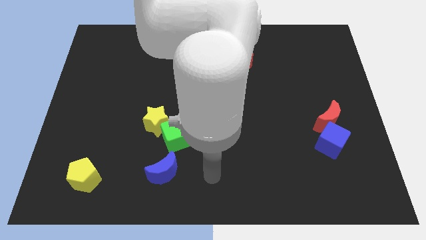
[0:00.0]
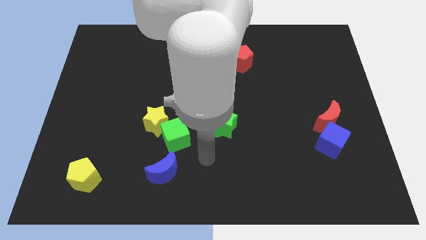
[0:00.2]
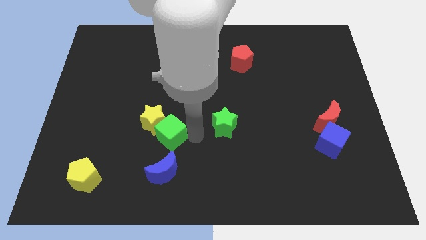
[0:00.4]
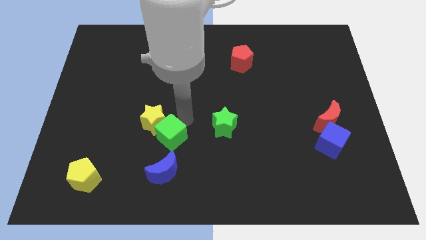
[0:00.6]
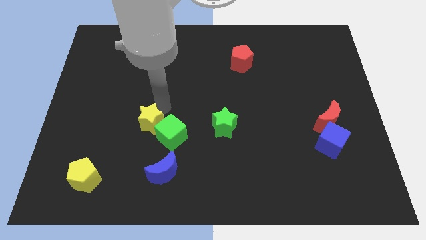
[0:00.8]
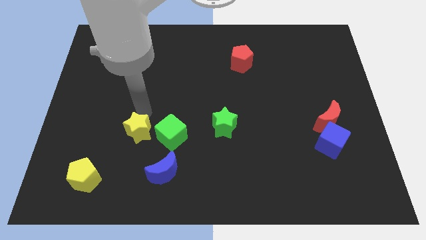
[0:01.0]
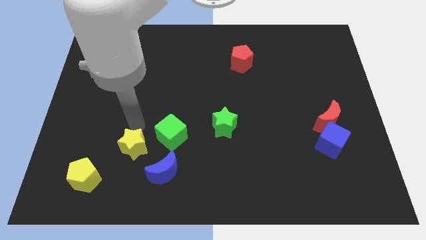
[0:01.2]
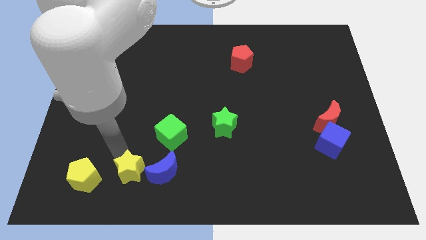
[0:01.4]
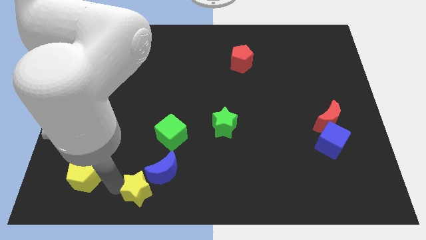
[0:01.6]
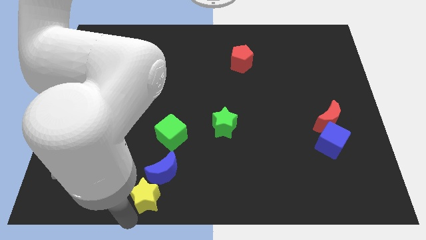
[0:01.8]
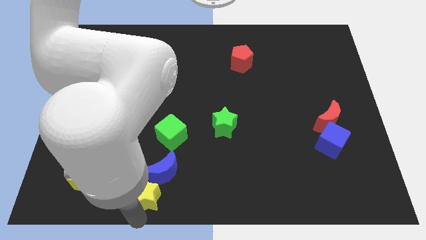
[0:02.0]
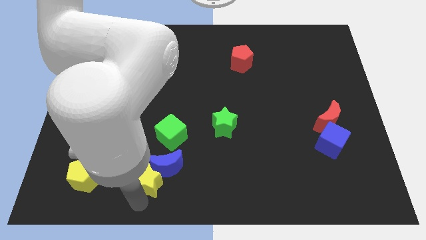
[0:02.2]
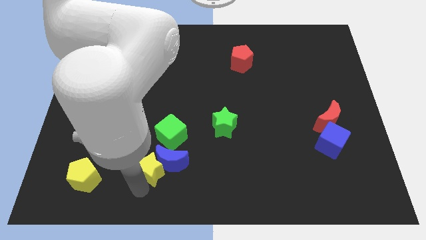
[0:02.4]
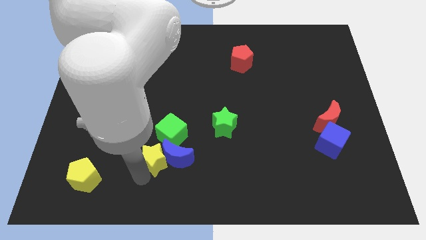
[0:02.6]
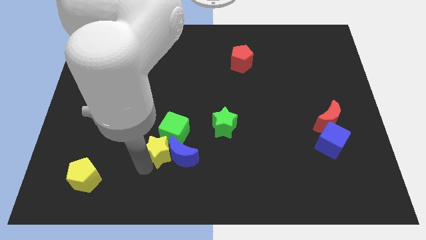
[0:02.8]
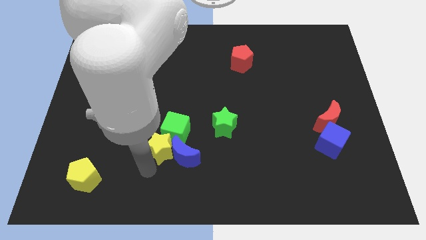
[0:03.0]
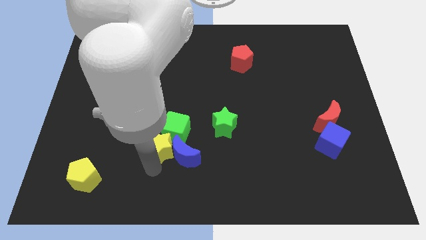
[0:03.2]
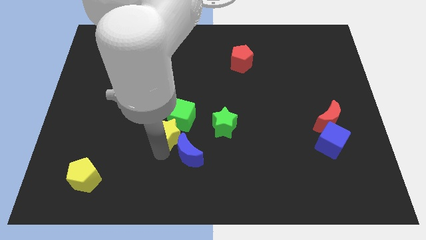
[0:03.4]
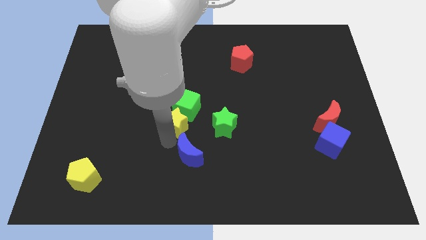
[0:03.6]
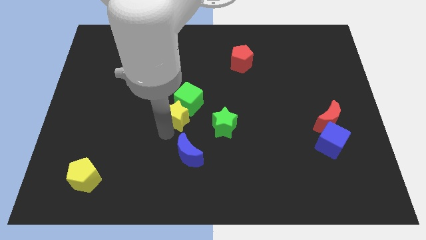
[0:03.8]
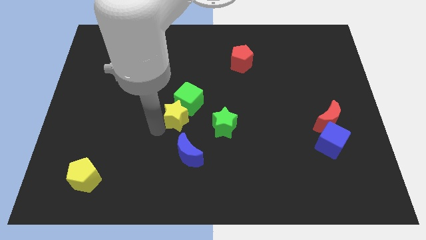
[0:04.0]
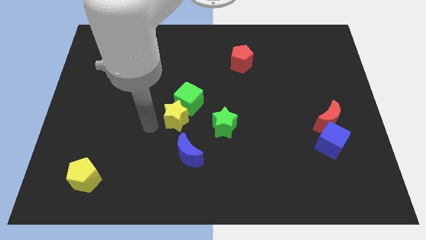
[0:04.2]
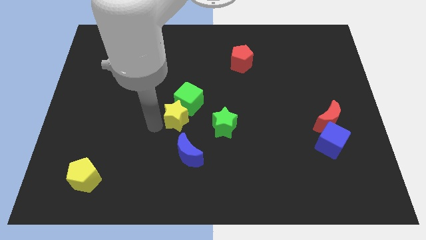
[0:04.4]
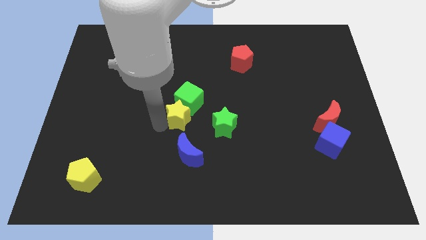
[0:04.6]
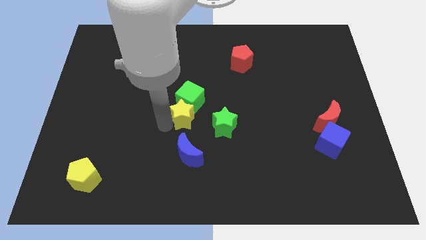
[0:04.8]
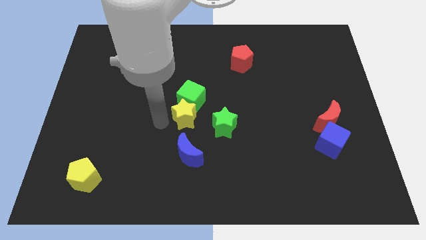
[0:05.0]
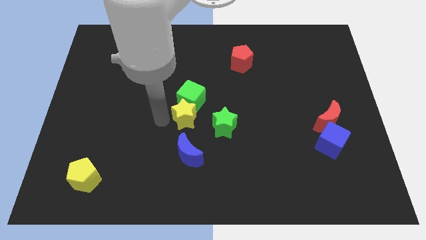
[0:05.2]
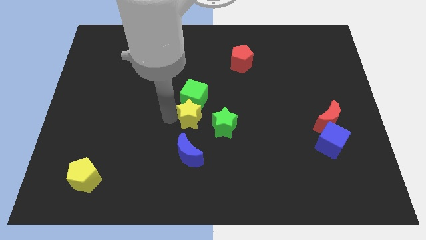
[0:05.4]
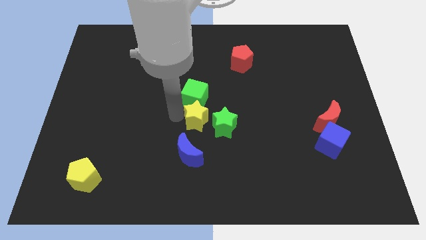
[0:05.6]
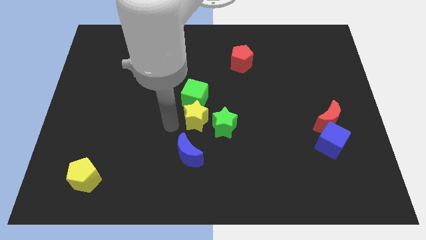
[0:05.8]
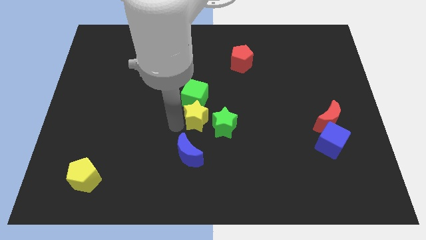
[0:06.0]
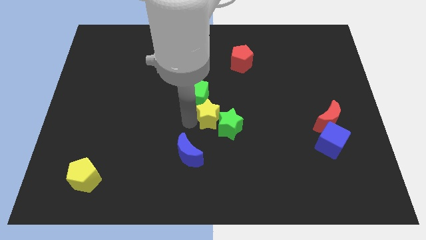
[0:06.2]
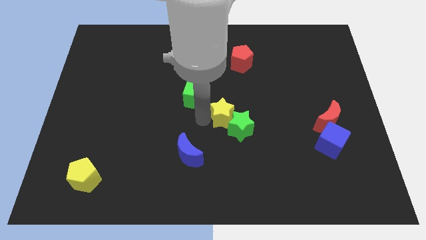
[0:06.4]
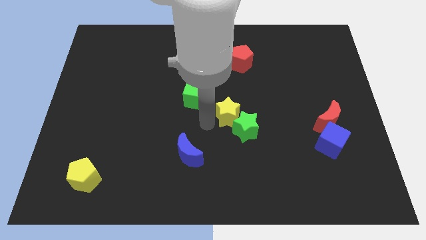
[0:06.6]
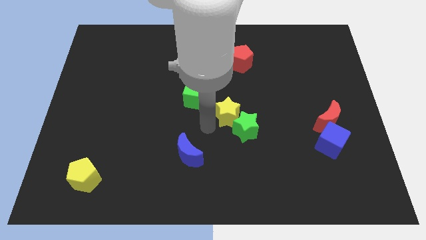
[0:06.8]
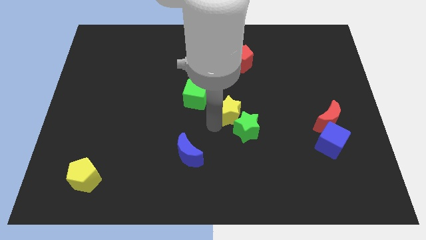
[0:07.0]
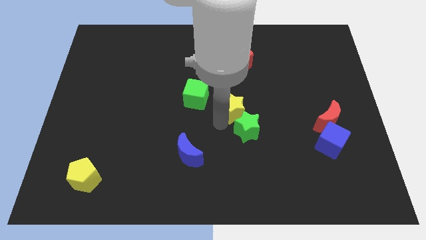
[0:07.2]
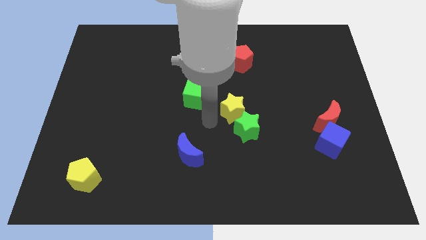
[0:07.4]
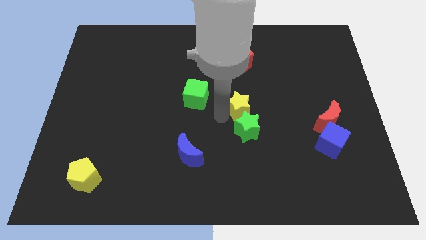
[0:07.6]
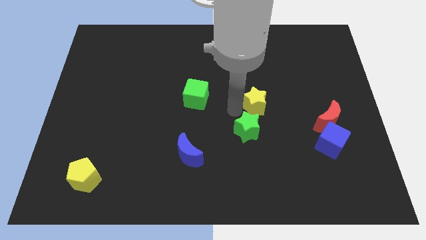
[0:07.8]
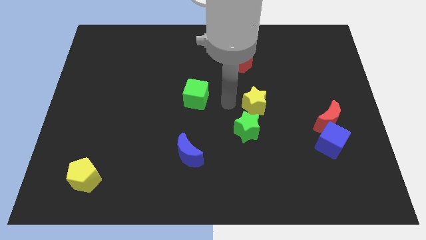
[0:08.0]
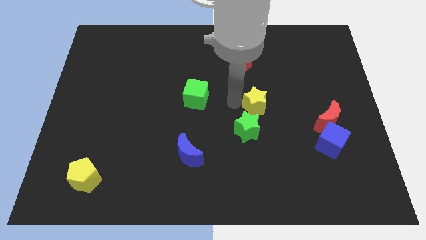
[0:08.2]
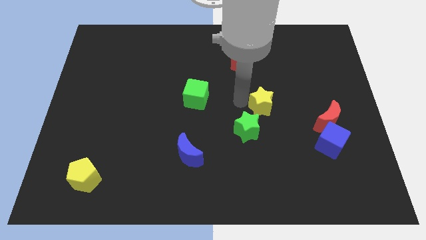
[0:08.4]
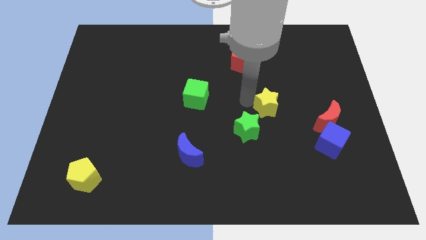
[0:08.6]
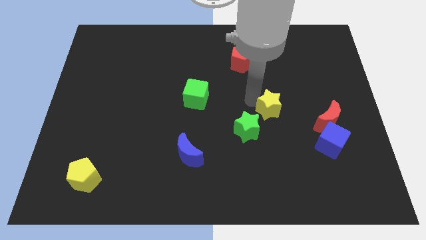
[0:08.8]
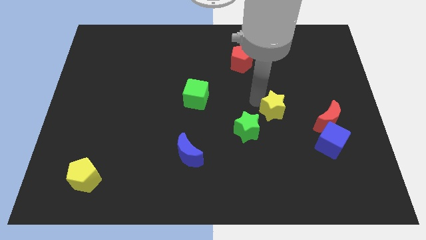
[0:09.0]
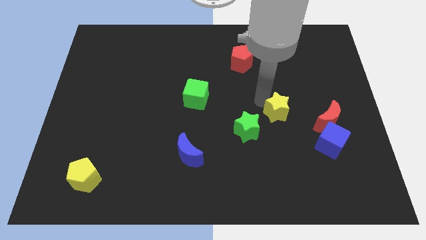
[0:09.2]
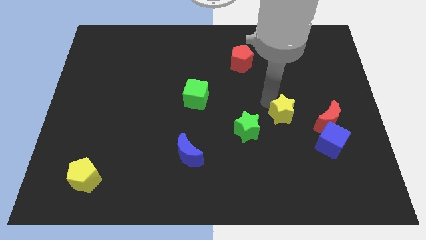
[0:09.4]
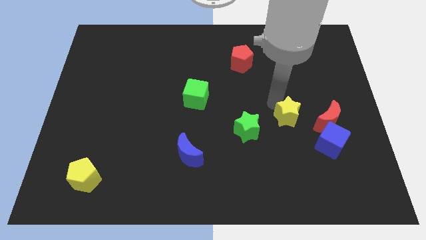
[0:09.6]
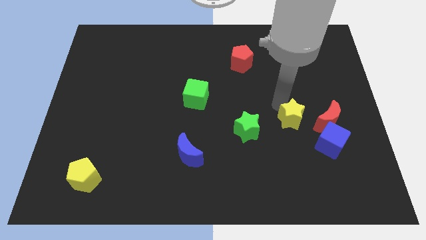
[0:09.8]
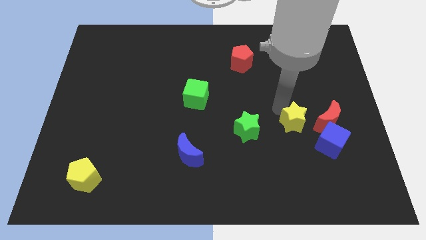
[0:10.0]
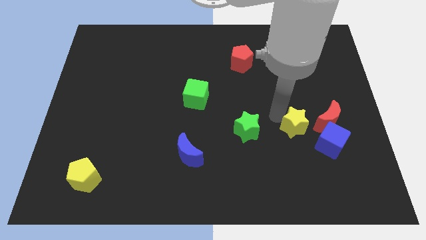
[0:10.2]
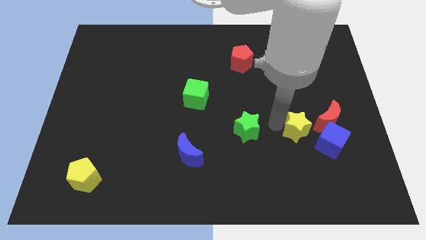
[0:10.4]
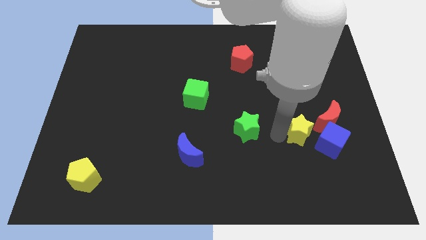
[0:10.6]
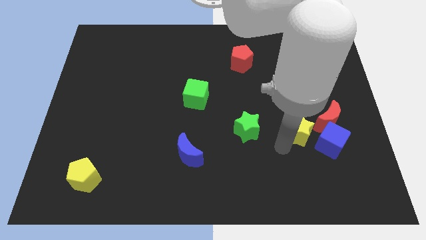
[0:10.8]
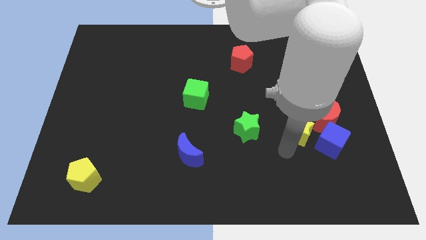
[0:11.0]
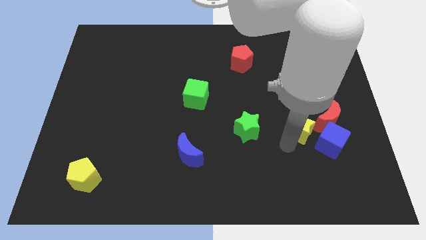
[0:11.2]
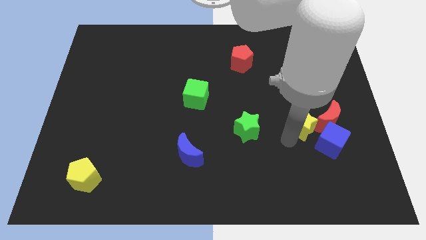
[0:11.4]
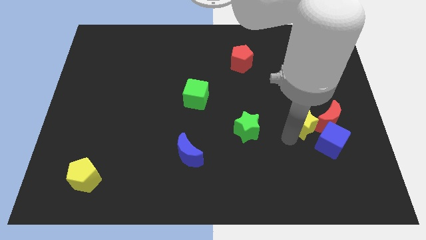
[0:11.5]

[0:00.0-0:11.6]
push the yellow star to the red moon
